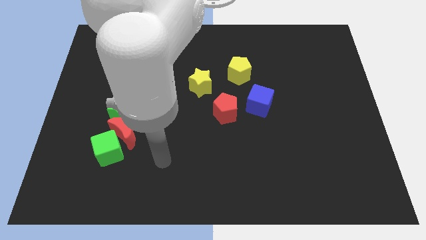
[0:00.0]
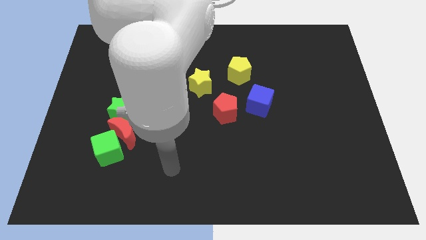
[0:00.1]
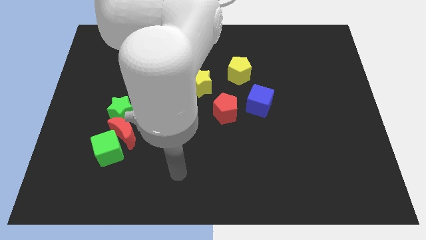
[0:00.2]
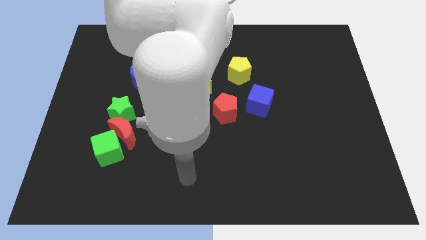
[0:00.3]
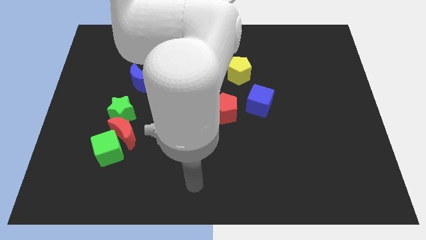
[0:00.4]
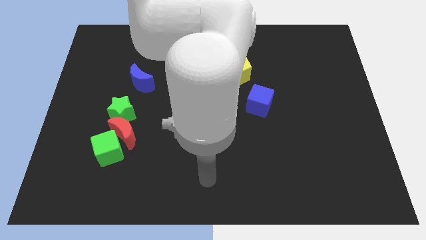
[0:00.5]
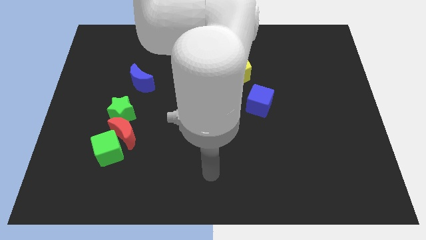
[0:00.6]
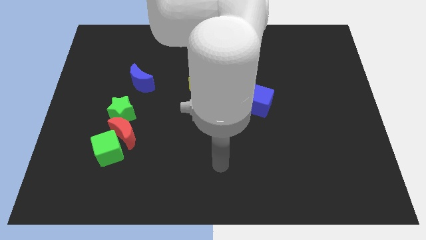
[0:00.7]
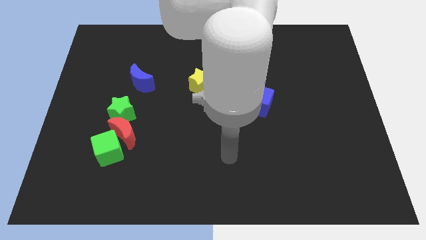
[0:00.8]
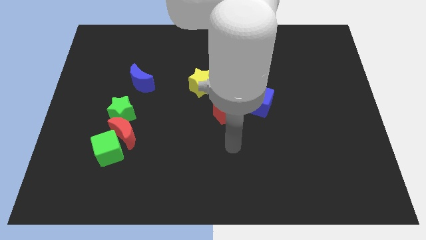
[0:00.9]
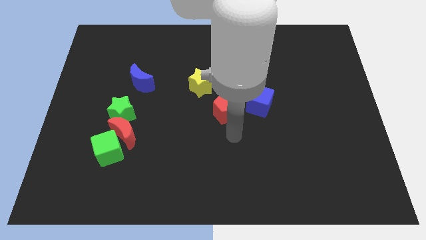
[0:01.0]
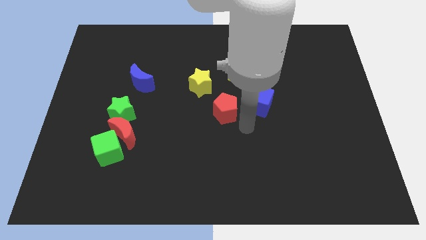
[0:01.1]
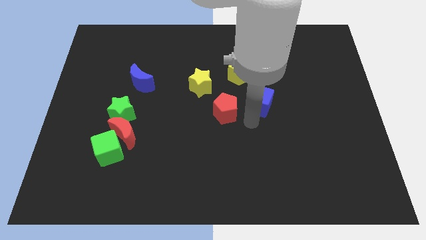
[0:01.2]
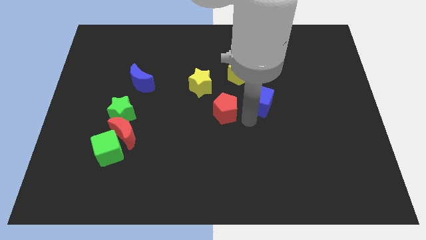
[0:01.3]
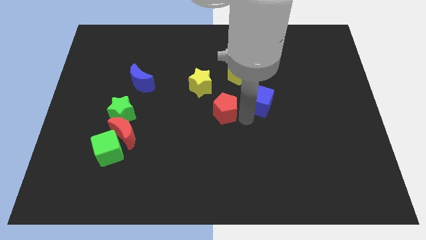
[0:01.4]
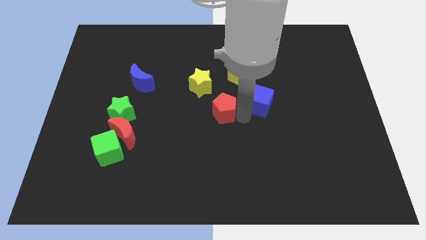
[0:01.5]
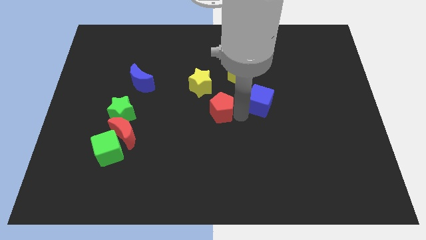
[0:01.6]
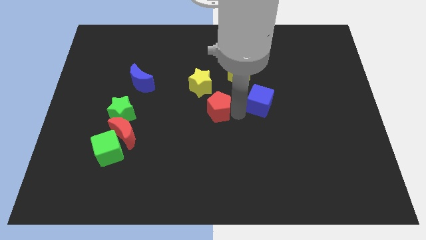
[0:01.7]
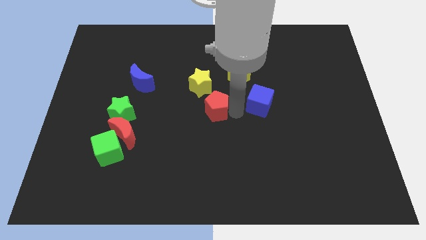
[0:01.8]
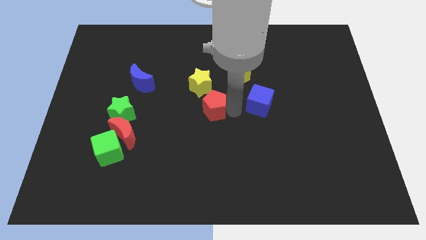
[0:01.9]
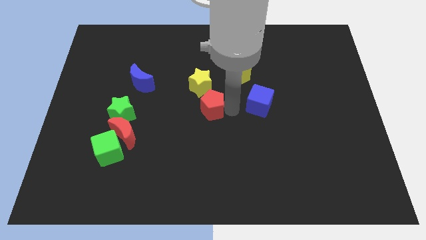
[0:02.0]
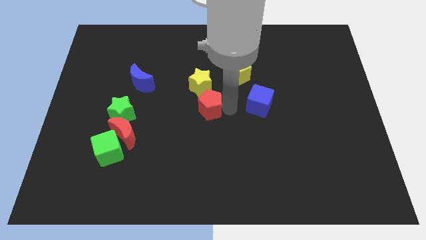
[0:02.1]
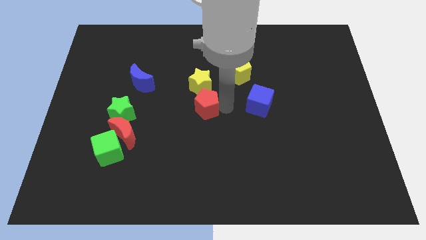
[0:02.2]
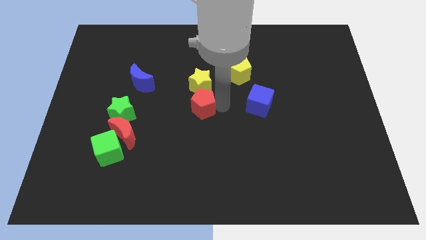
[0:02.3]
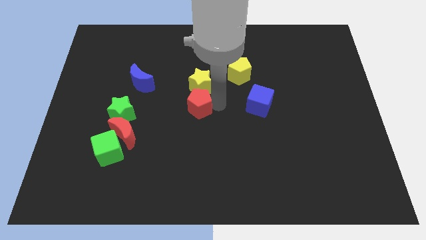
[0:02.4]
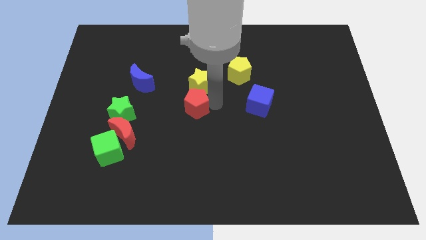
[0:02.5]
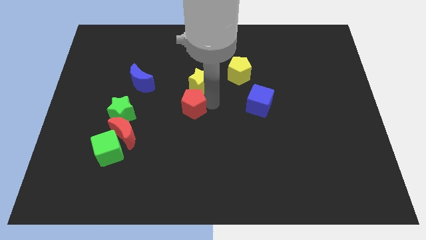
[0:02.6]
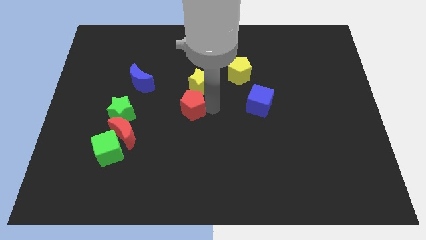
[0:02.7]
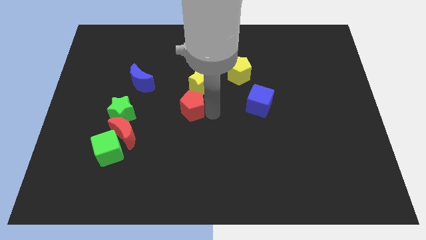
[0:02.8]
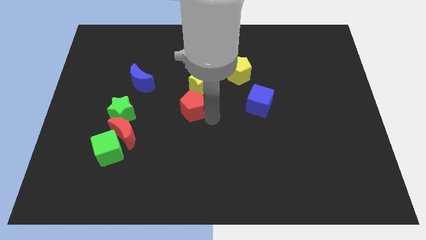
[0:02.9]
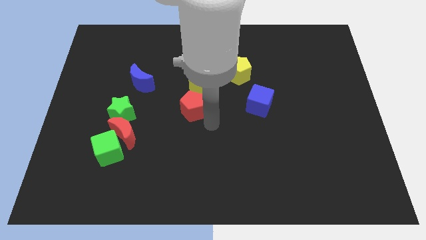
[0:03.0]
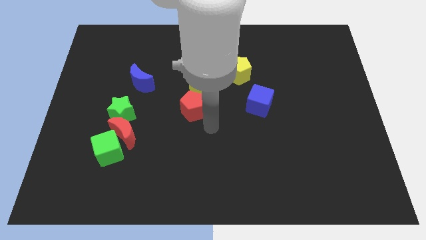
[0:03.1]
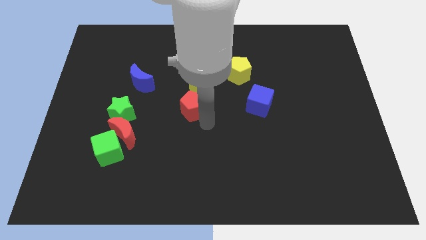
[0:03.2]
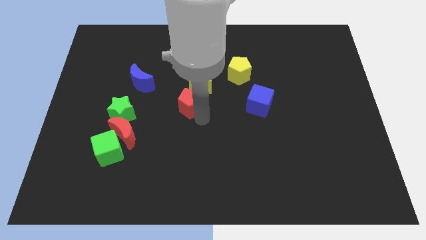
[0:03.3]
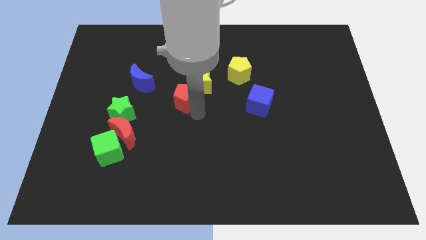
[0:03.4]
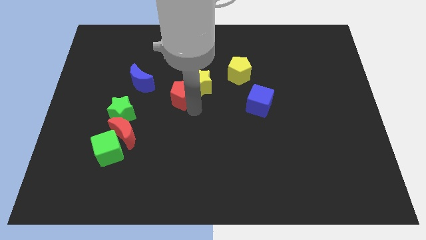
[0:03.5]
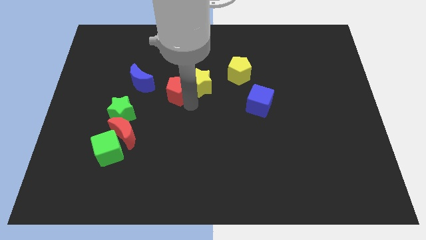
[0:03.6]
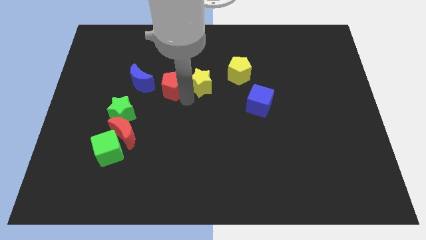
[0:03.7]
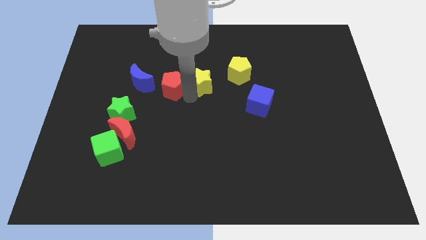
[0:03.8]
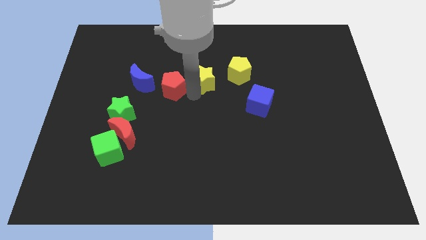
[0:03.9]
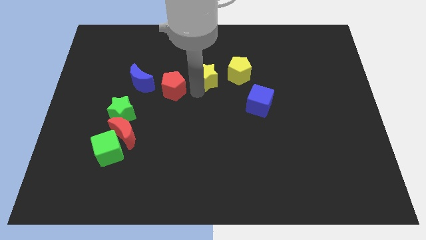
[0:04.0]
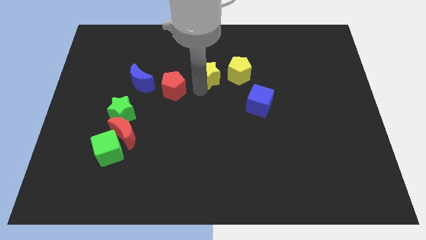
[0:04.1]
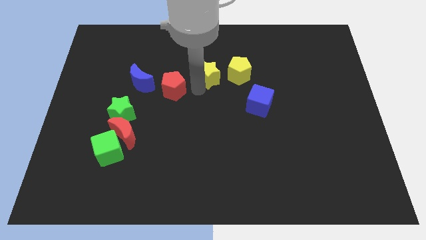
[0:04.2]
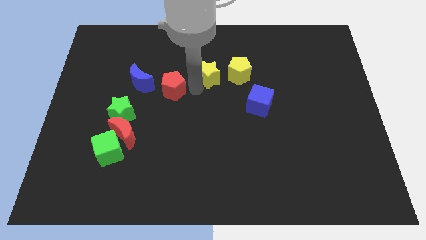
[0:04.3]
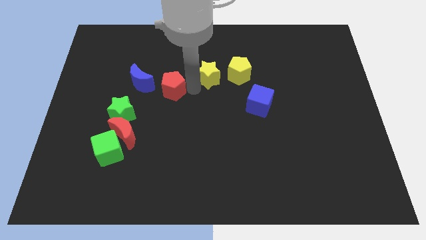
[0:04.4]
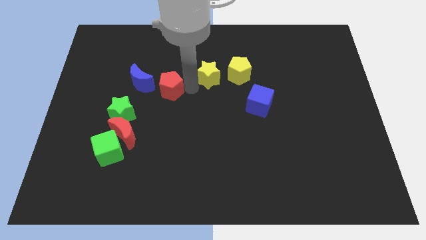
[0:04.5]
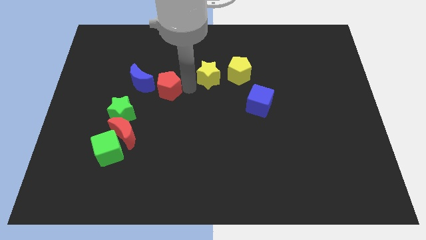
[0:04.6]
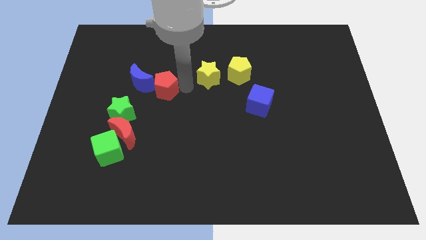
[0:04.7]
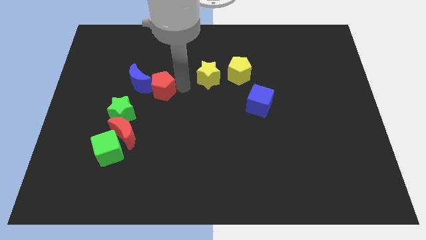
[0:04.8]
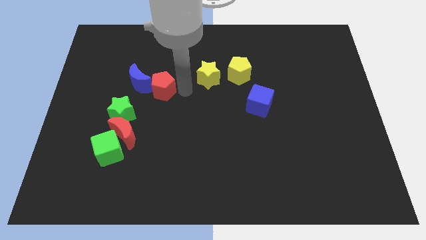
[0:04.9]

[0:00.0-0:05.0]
slide the red pentagon to the blue moon

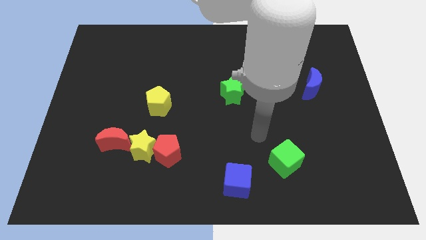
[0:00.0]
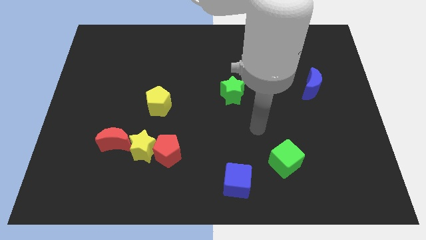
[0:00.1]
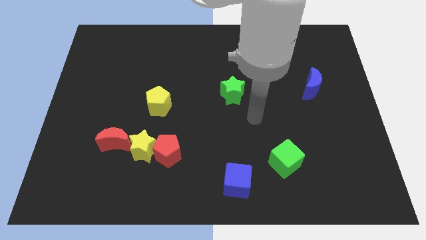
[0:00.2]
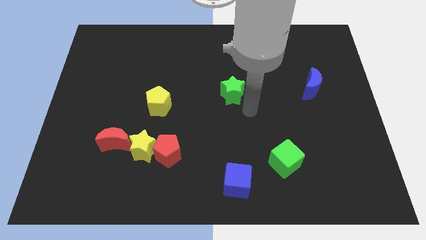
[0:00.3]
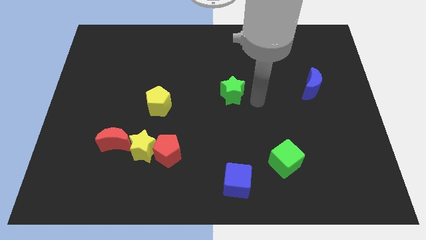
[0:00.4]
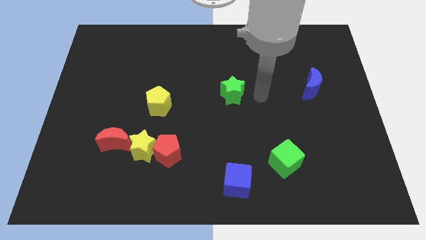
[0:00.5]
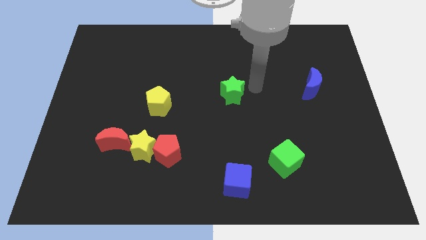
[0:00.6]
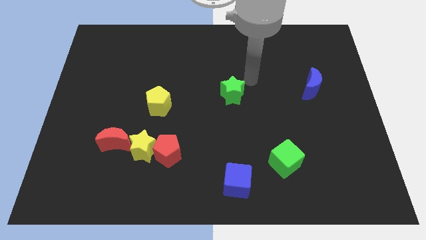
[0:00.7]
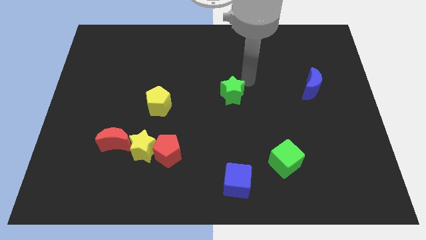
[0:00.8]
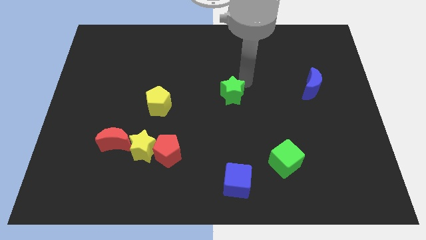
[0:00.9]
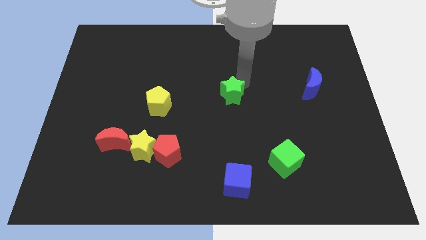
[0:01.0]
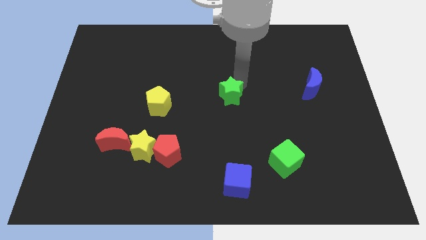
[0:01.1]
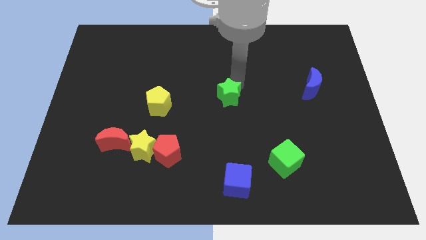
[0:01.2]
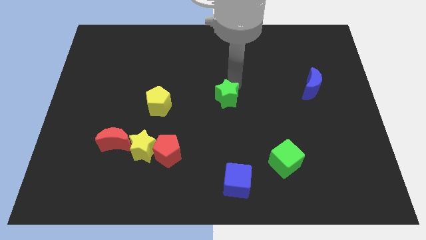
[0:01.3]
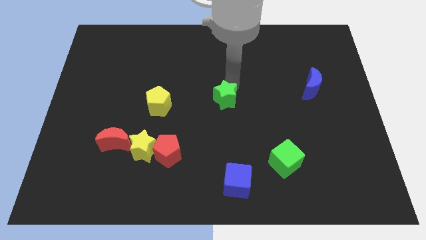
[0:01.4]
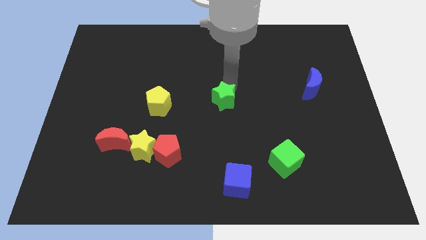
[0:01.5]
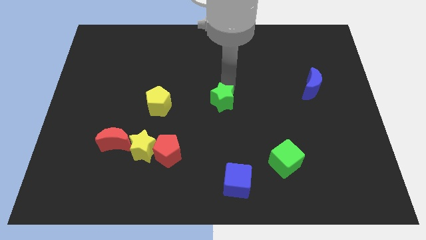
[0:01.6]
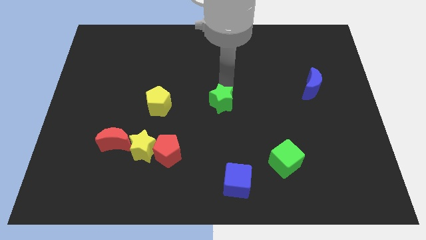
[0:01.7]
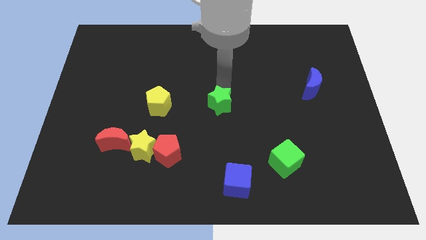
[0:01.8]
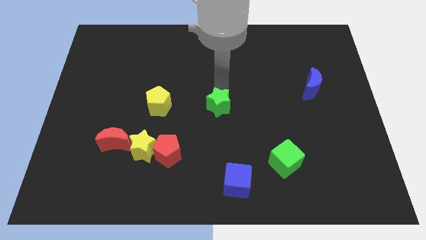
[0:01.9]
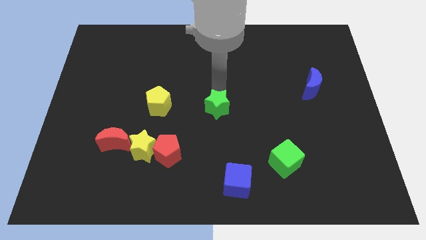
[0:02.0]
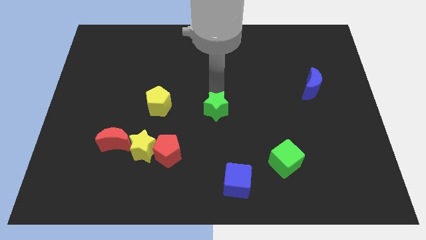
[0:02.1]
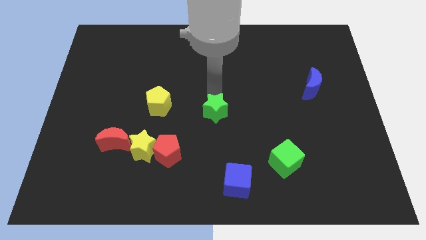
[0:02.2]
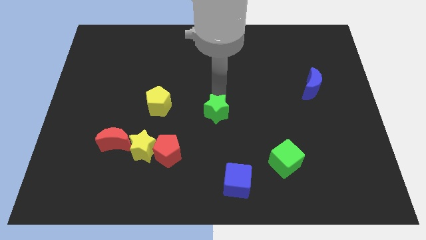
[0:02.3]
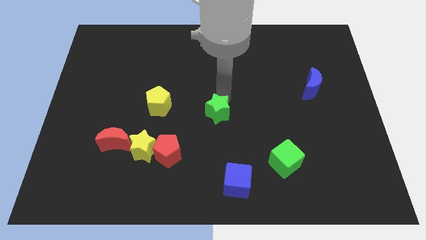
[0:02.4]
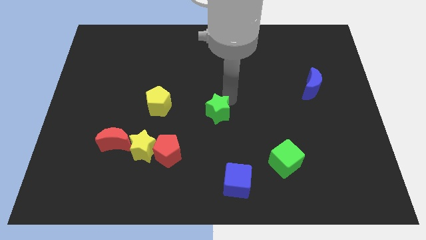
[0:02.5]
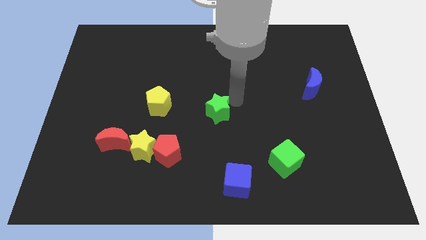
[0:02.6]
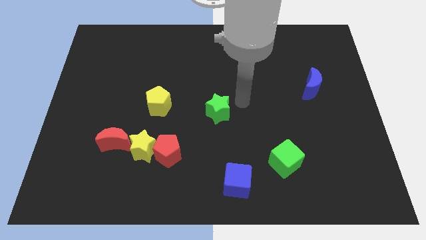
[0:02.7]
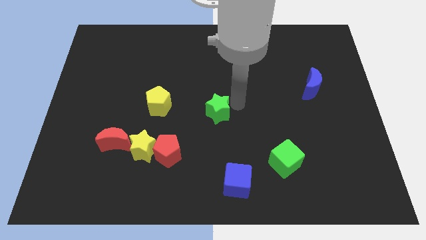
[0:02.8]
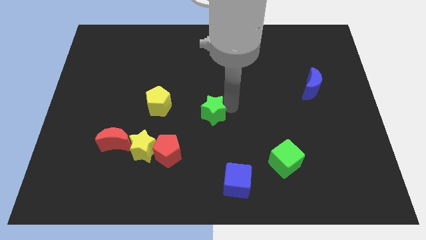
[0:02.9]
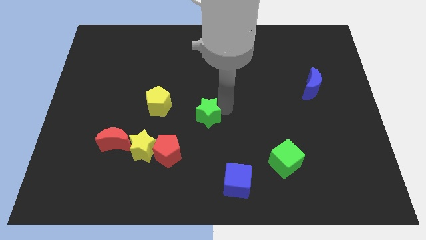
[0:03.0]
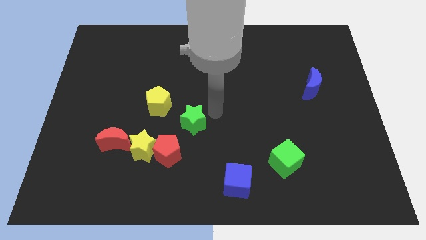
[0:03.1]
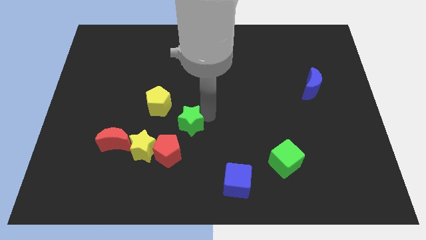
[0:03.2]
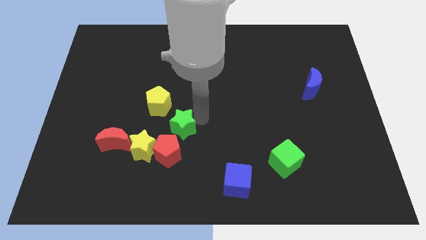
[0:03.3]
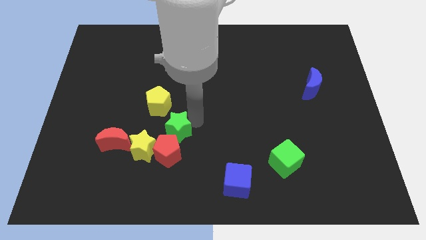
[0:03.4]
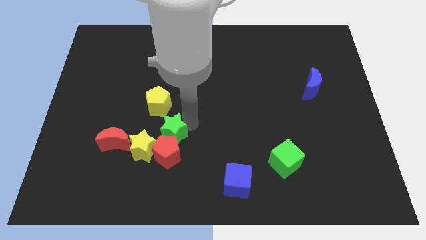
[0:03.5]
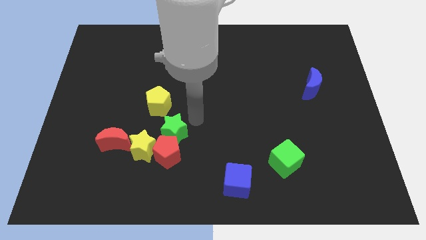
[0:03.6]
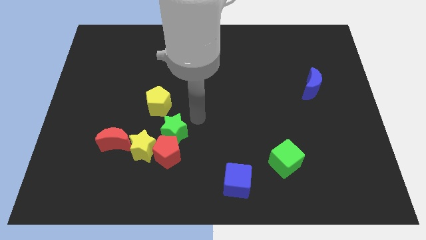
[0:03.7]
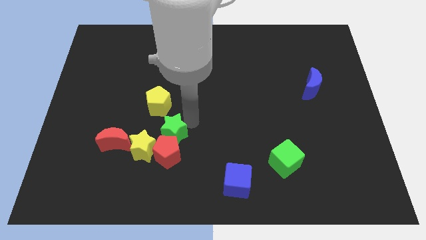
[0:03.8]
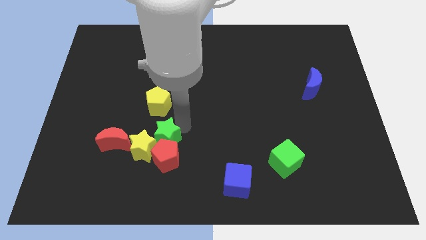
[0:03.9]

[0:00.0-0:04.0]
put the green star to the yellow star
